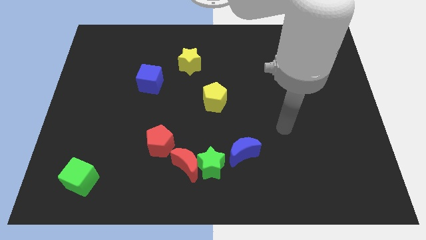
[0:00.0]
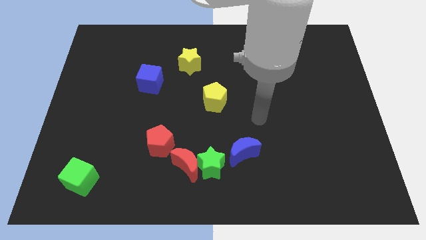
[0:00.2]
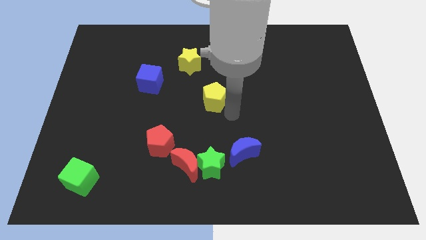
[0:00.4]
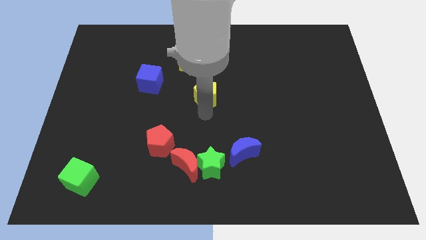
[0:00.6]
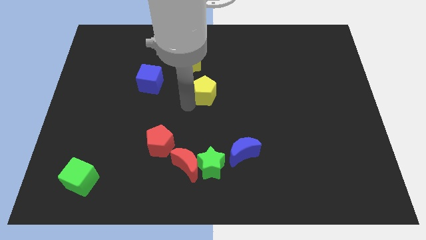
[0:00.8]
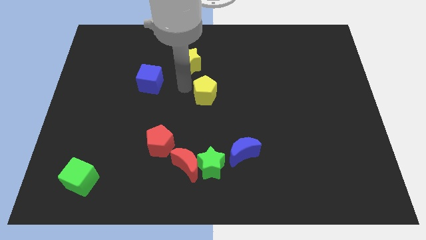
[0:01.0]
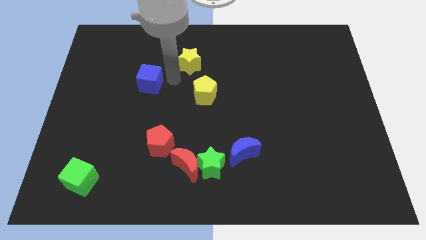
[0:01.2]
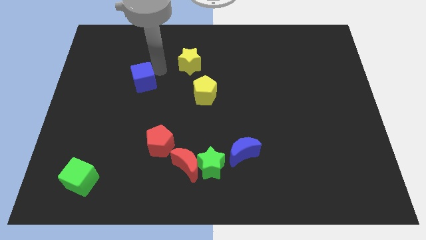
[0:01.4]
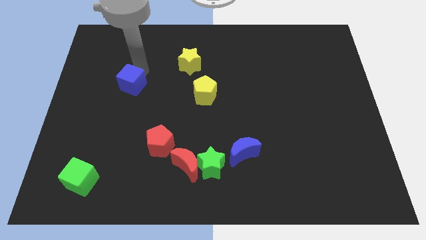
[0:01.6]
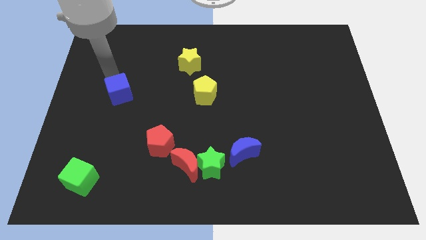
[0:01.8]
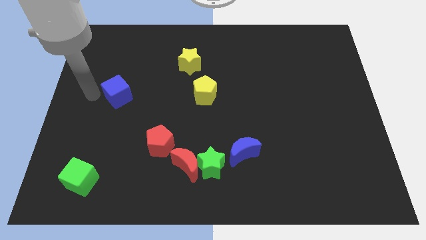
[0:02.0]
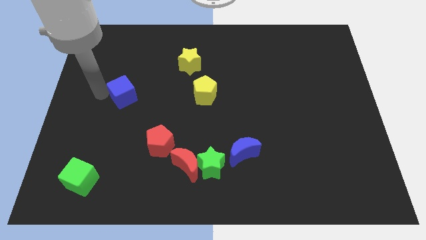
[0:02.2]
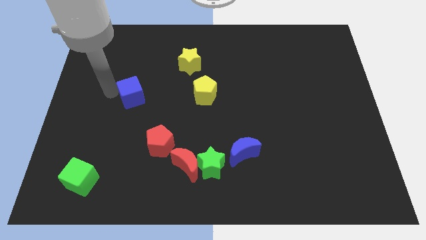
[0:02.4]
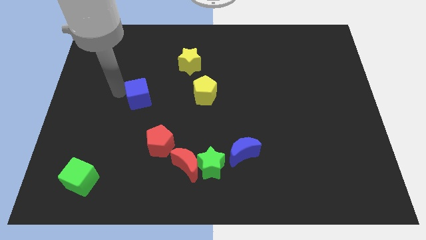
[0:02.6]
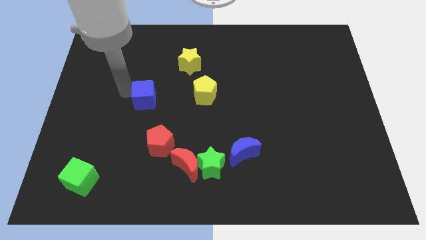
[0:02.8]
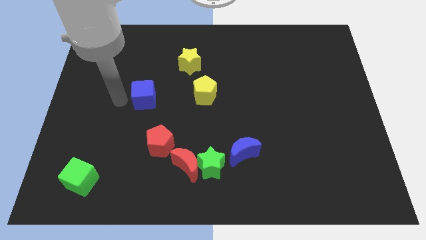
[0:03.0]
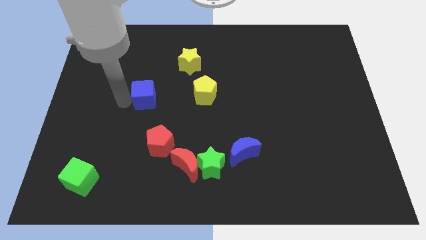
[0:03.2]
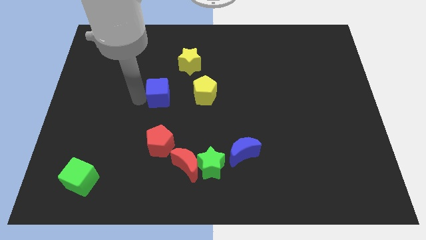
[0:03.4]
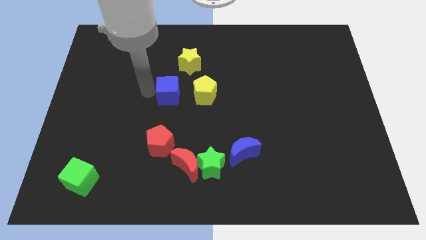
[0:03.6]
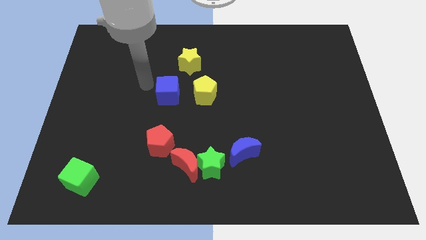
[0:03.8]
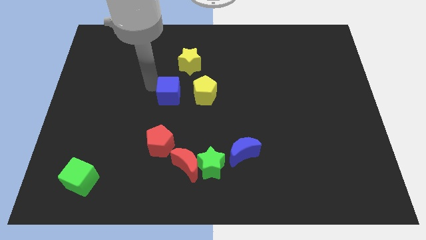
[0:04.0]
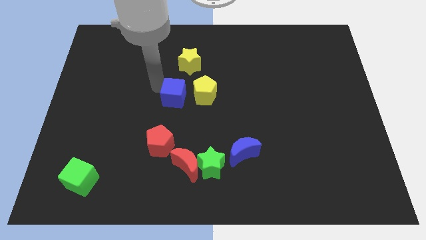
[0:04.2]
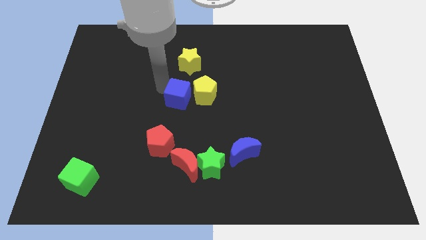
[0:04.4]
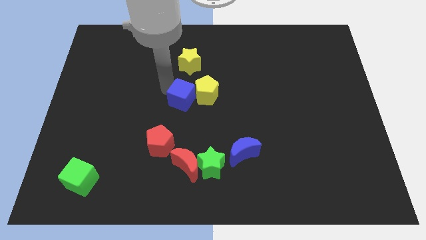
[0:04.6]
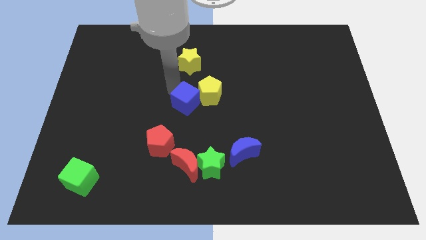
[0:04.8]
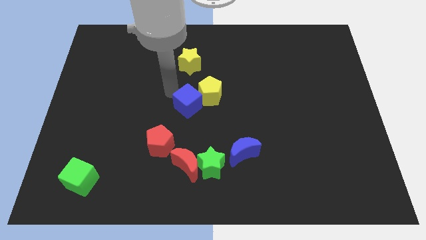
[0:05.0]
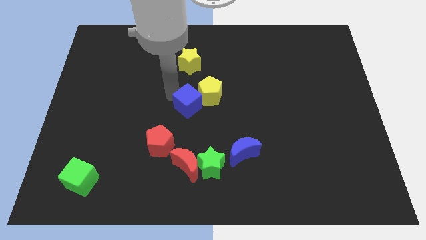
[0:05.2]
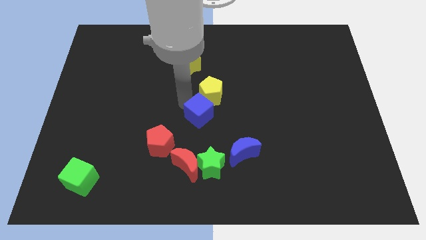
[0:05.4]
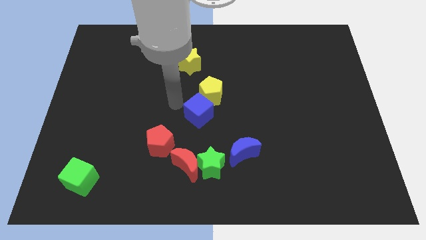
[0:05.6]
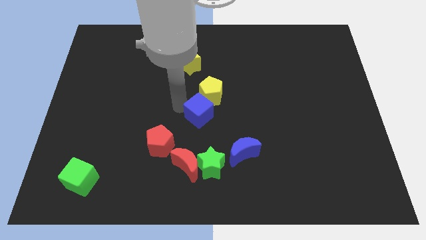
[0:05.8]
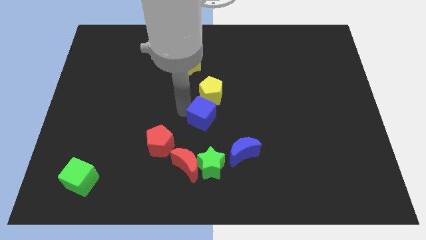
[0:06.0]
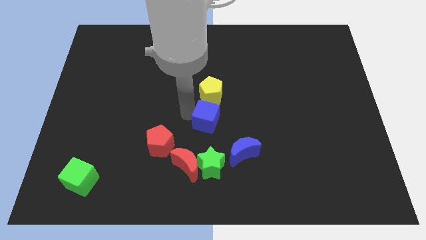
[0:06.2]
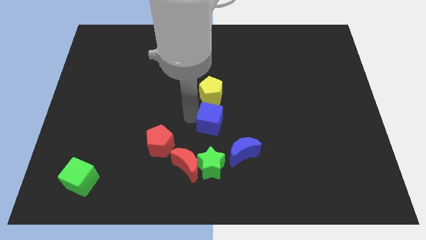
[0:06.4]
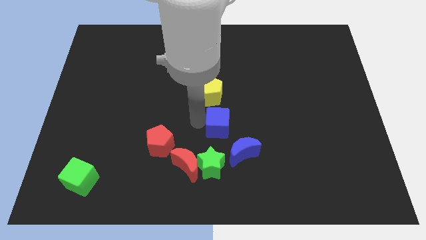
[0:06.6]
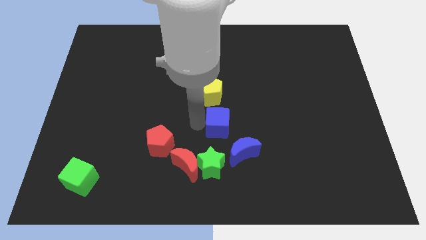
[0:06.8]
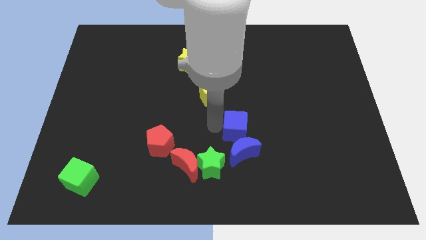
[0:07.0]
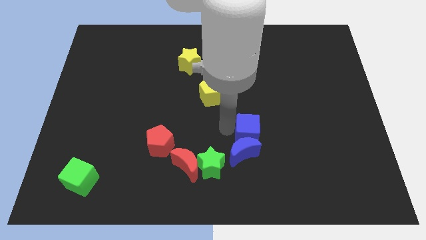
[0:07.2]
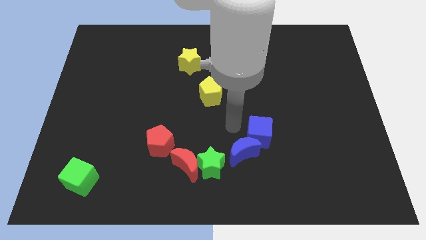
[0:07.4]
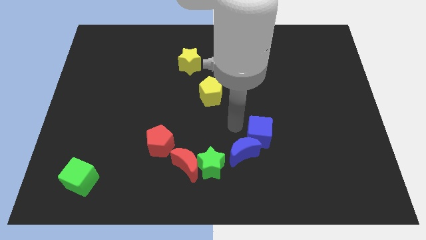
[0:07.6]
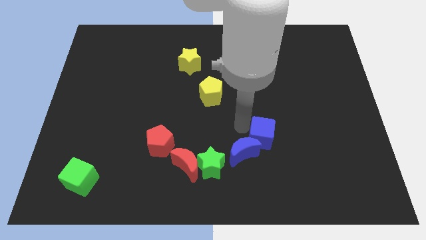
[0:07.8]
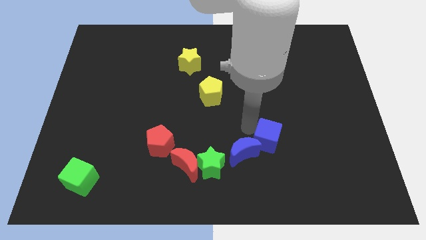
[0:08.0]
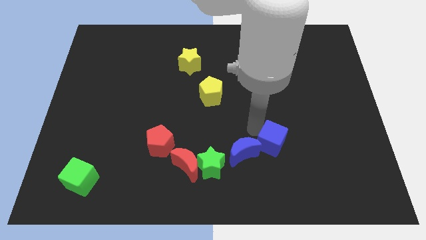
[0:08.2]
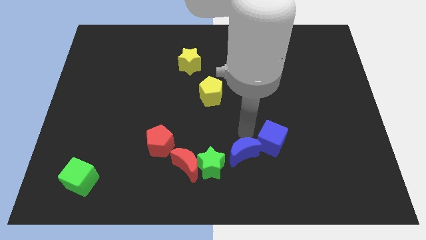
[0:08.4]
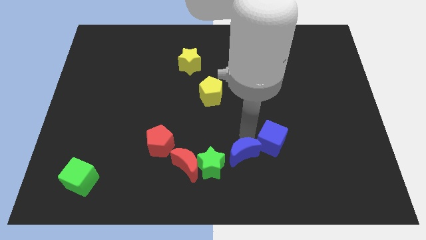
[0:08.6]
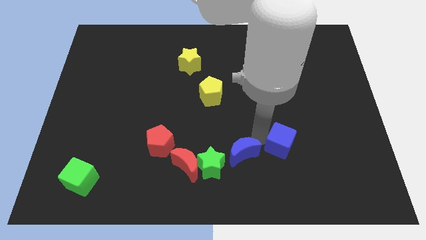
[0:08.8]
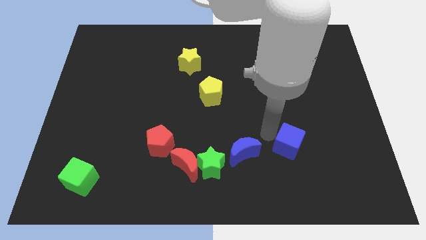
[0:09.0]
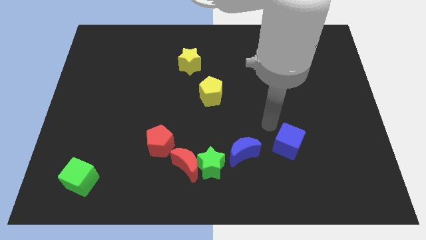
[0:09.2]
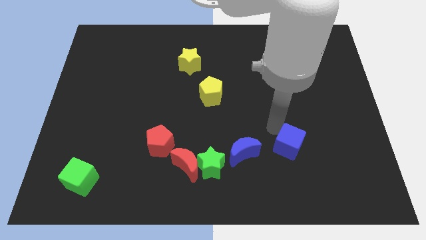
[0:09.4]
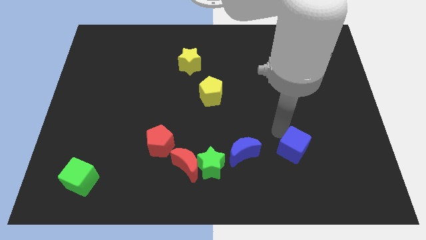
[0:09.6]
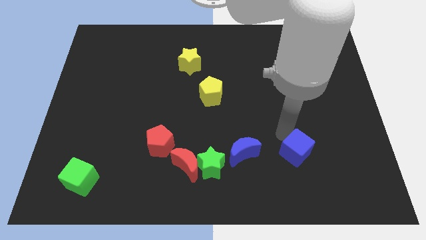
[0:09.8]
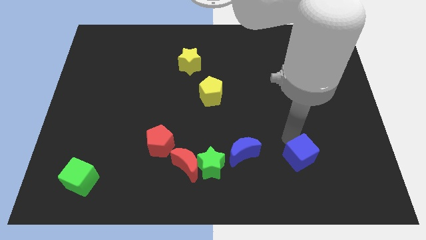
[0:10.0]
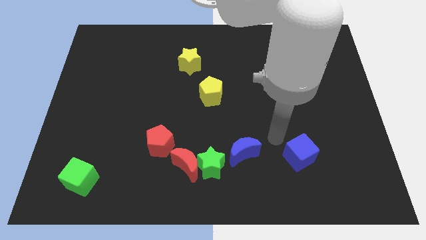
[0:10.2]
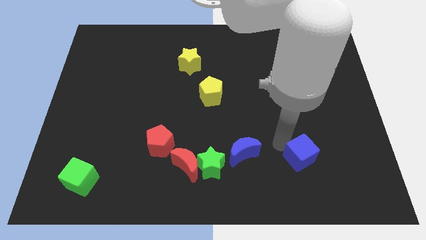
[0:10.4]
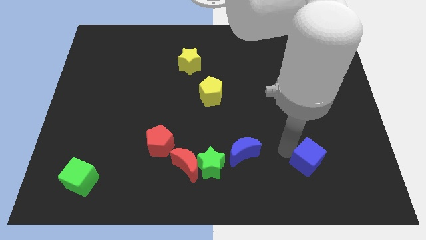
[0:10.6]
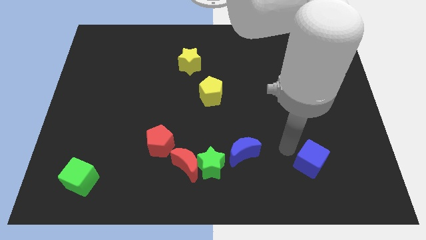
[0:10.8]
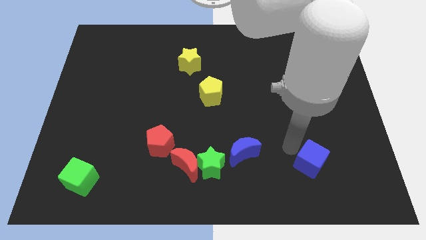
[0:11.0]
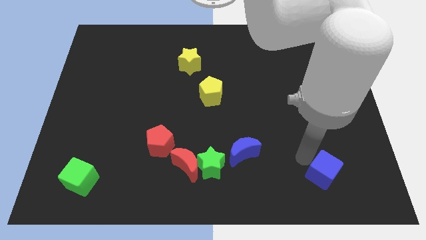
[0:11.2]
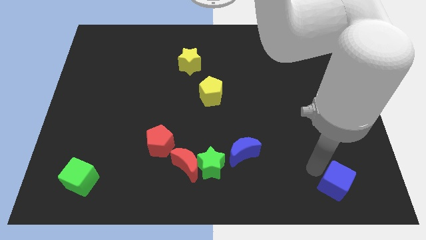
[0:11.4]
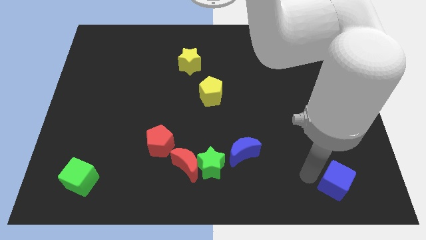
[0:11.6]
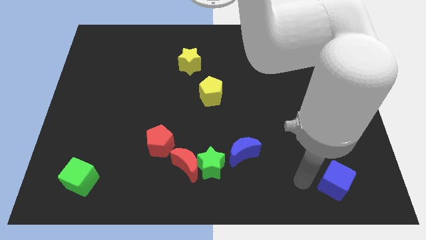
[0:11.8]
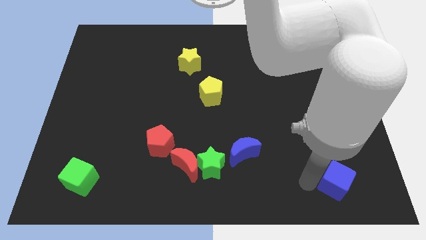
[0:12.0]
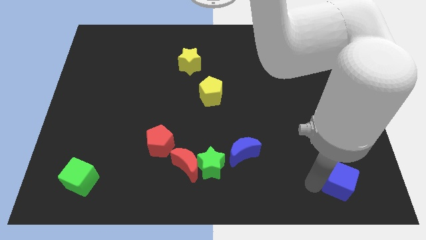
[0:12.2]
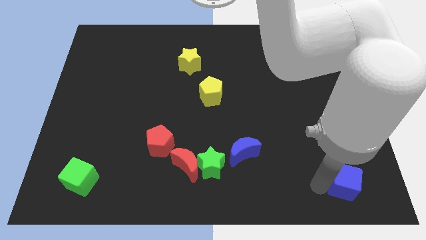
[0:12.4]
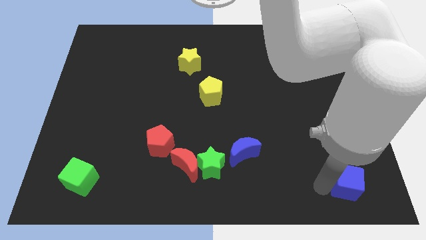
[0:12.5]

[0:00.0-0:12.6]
push the blue cube to the bottom right of the board

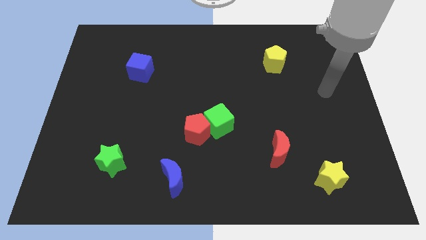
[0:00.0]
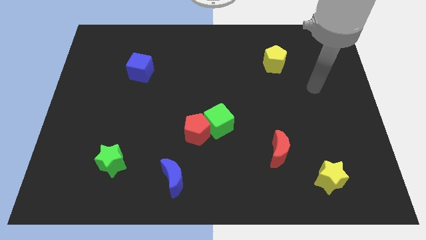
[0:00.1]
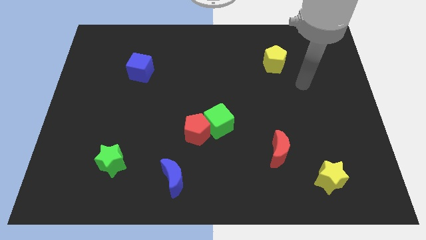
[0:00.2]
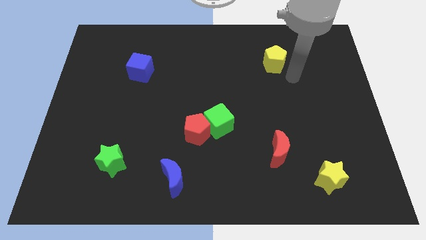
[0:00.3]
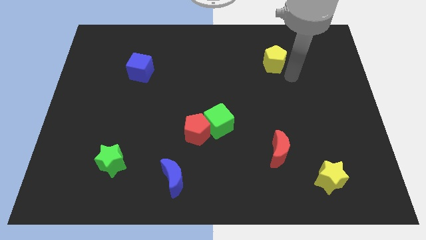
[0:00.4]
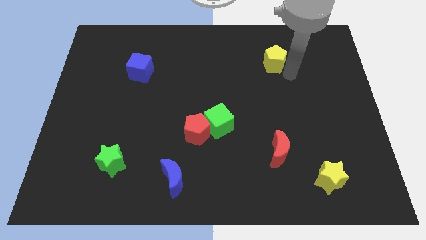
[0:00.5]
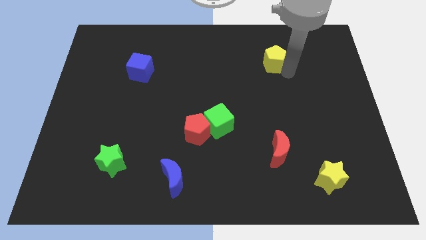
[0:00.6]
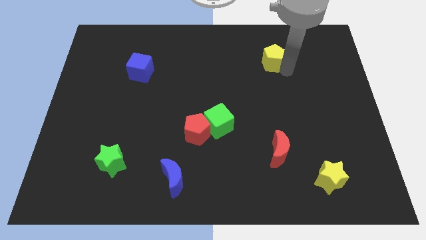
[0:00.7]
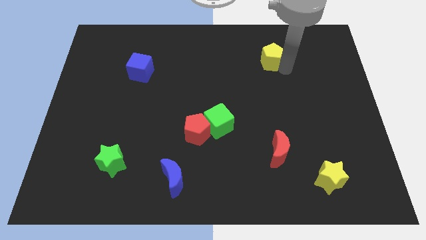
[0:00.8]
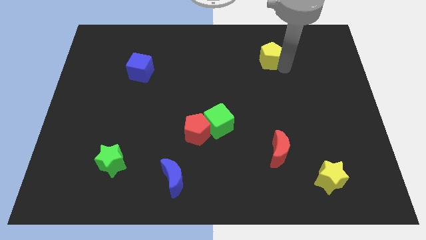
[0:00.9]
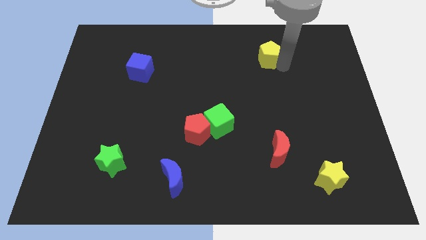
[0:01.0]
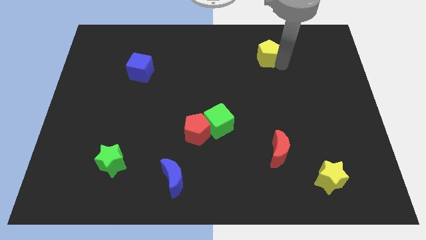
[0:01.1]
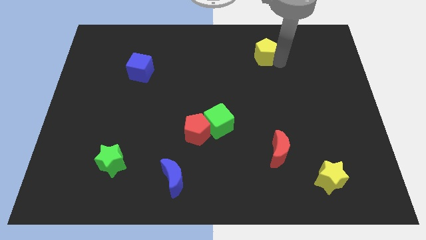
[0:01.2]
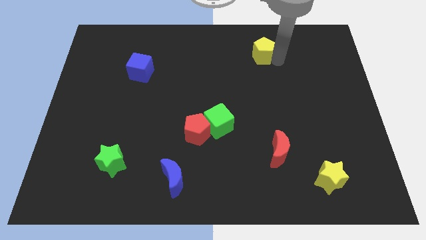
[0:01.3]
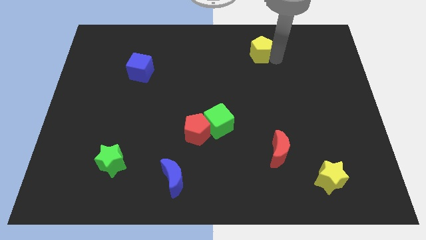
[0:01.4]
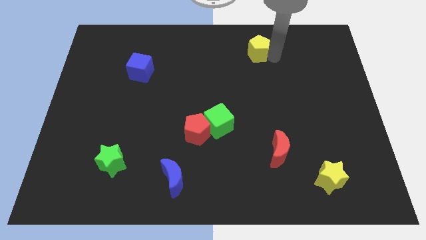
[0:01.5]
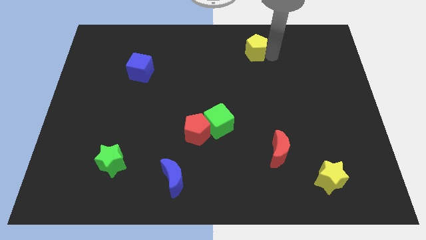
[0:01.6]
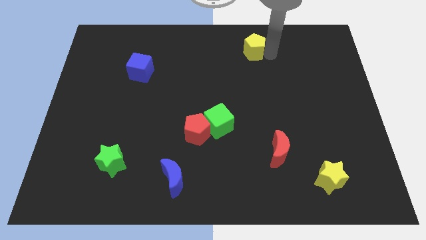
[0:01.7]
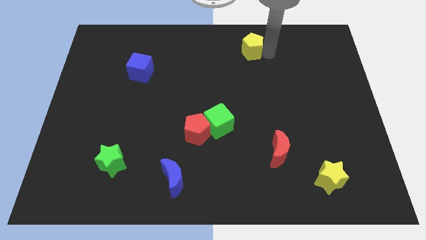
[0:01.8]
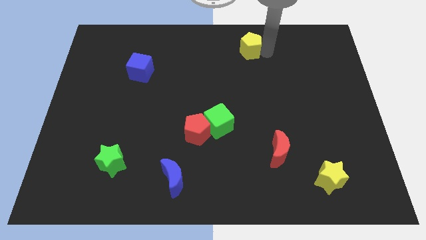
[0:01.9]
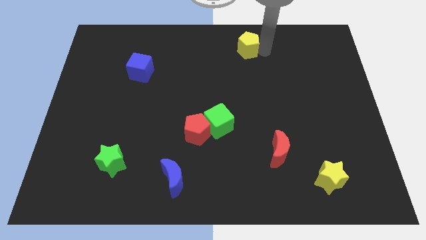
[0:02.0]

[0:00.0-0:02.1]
slide the yellow pentagon to the top side

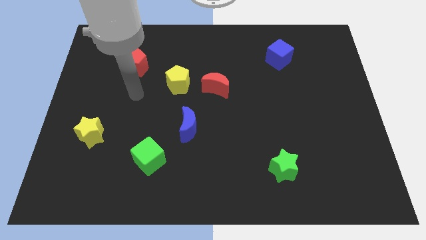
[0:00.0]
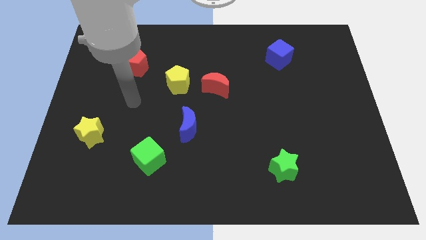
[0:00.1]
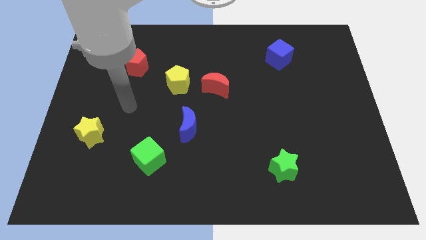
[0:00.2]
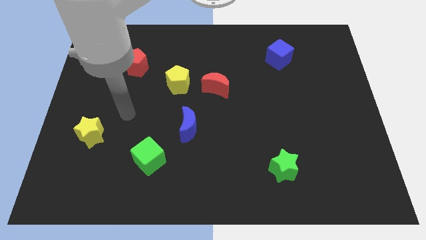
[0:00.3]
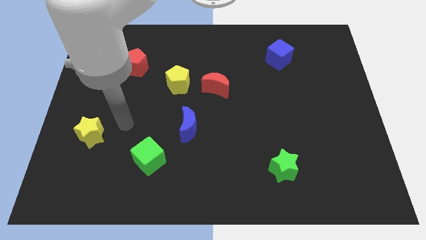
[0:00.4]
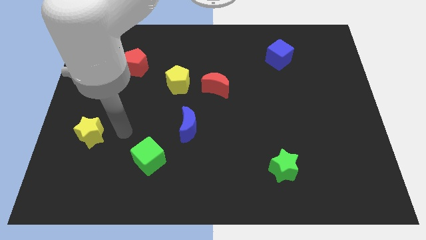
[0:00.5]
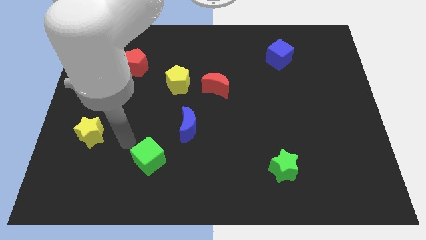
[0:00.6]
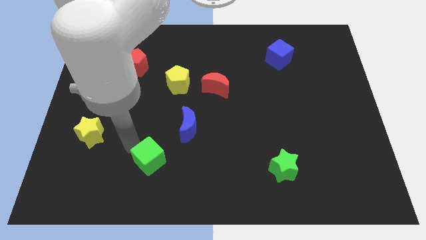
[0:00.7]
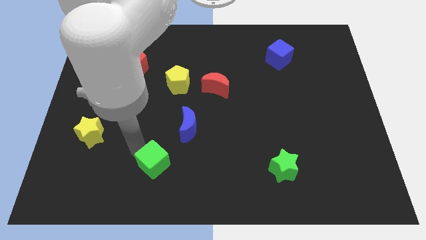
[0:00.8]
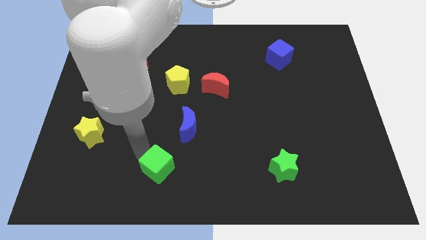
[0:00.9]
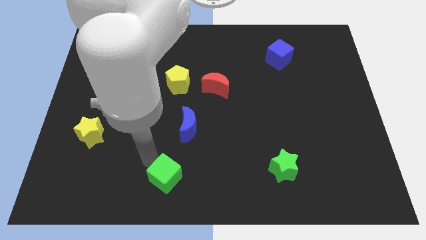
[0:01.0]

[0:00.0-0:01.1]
push the green cube to the bottom side
